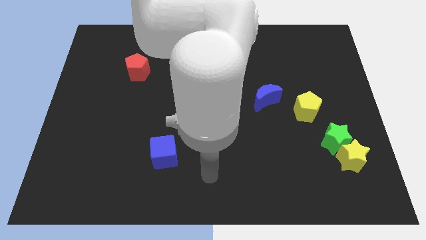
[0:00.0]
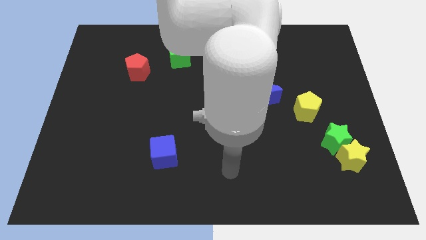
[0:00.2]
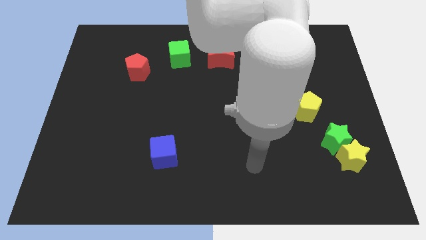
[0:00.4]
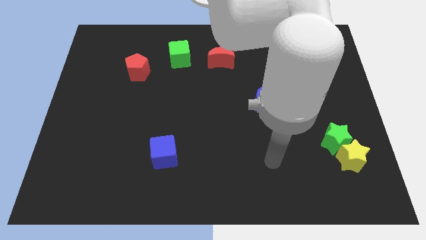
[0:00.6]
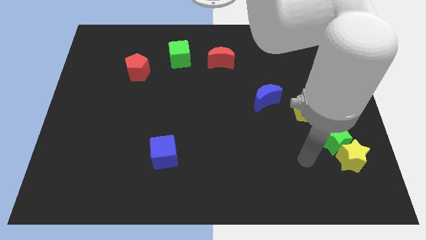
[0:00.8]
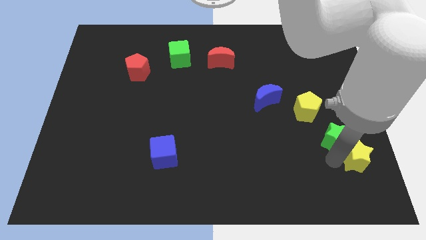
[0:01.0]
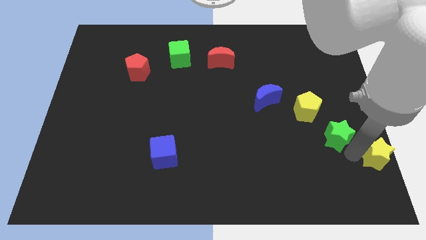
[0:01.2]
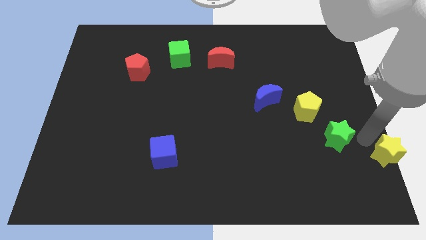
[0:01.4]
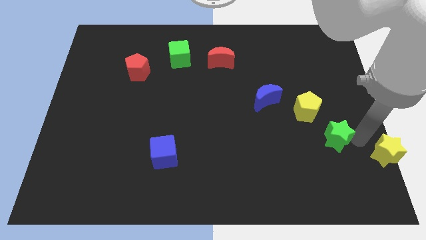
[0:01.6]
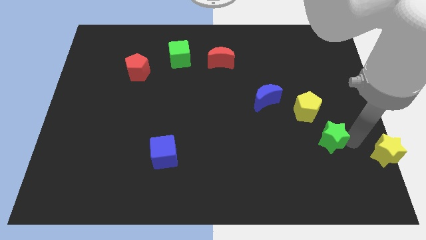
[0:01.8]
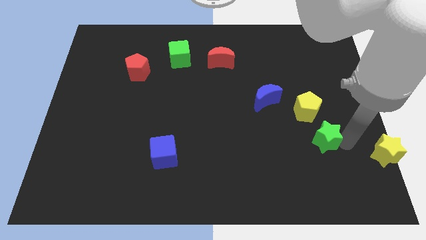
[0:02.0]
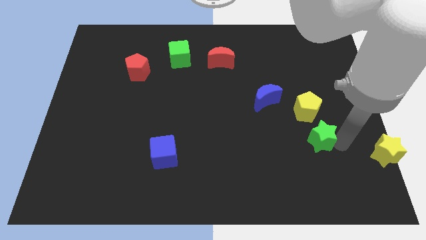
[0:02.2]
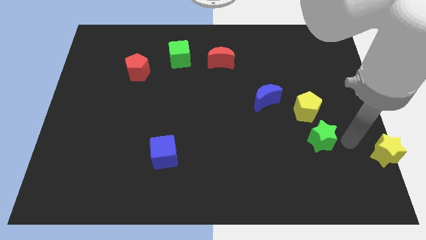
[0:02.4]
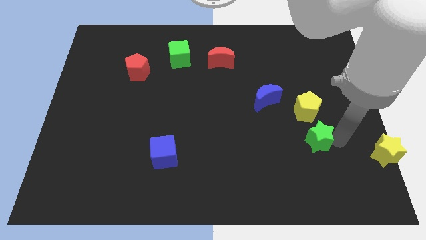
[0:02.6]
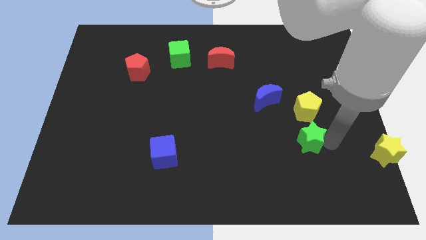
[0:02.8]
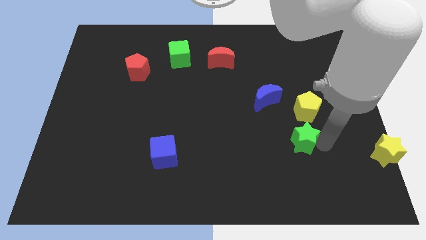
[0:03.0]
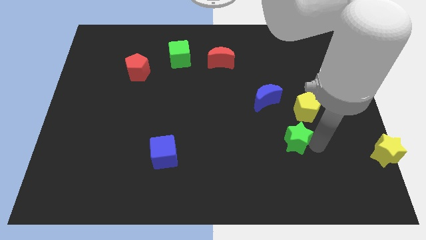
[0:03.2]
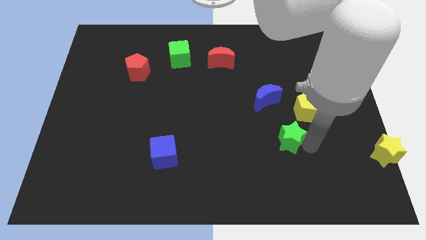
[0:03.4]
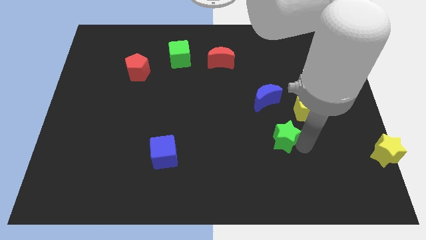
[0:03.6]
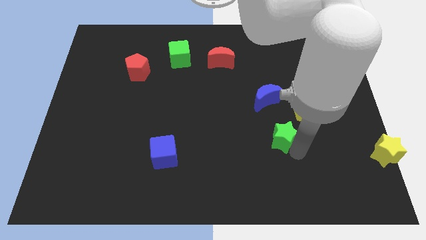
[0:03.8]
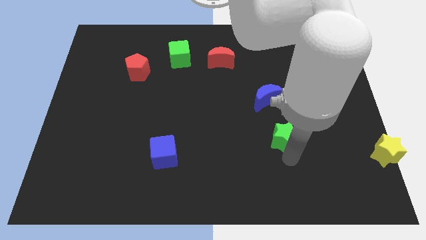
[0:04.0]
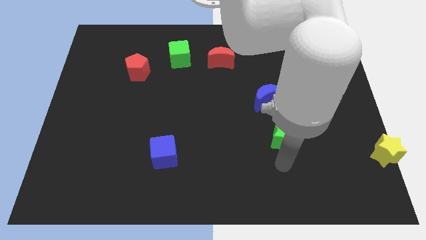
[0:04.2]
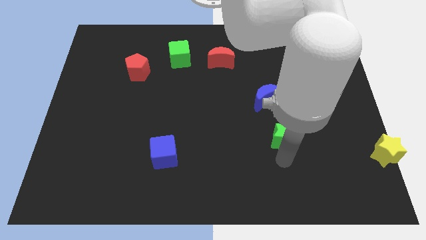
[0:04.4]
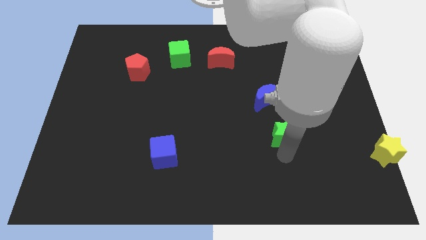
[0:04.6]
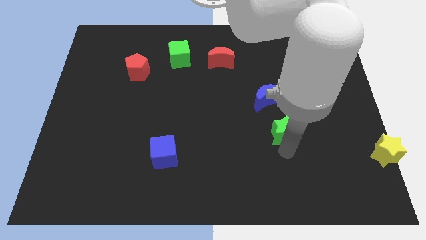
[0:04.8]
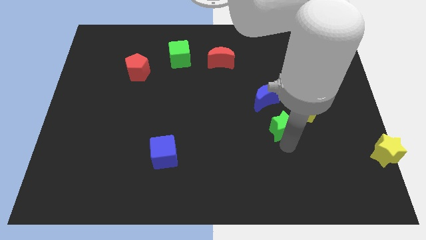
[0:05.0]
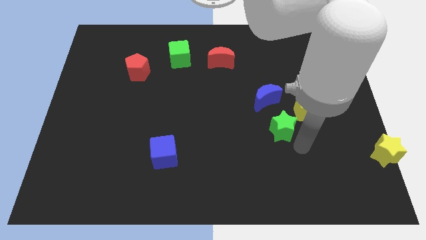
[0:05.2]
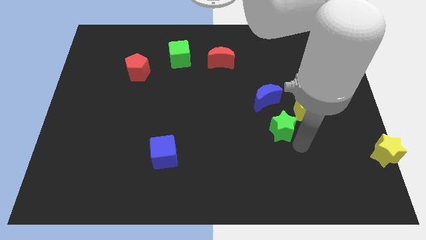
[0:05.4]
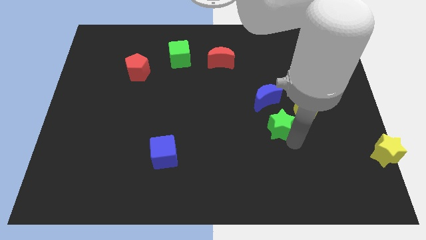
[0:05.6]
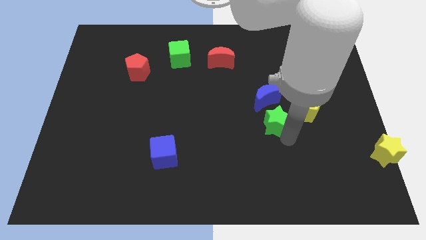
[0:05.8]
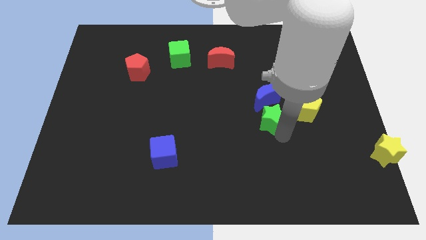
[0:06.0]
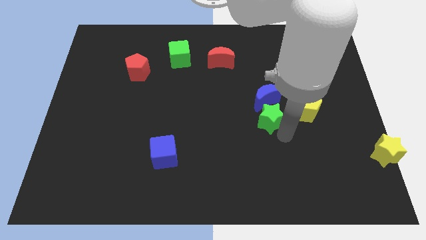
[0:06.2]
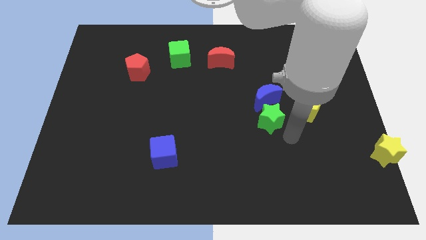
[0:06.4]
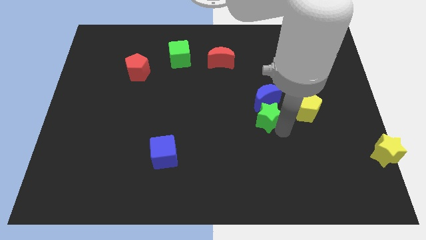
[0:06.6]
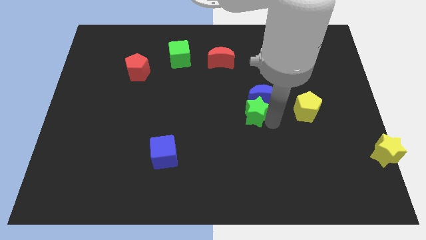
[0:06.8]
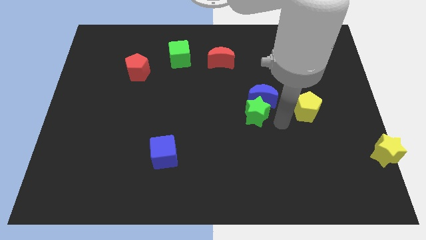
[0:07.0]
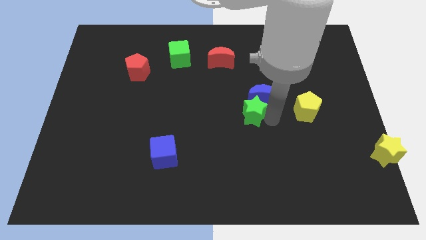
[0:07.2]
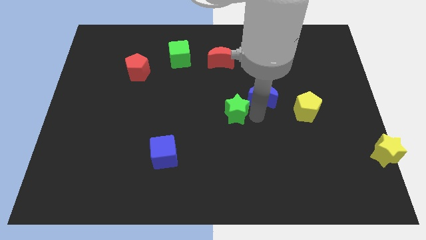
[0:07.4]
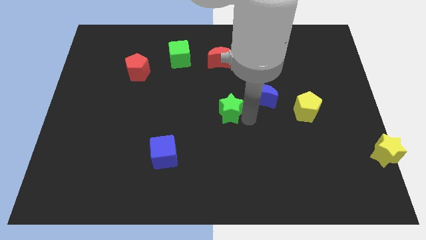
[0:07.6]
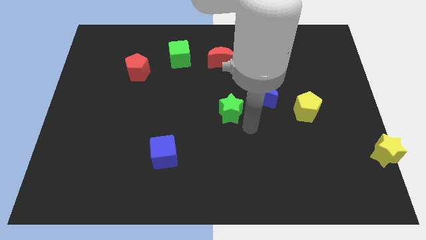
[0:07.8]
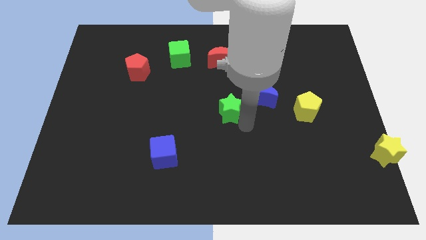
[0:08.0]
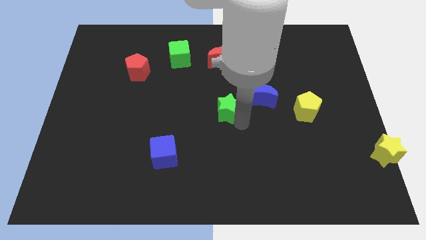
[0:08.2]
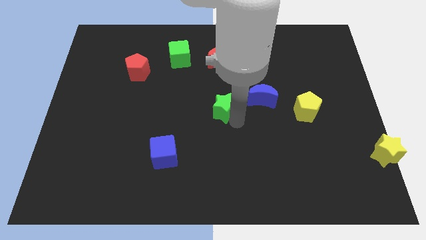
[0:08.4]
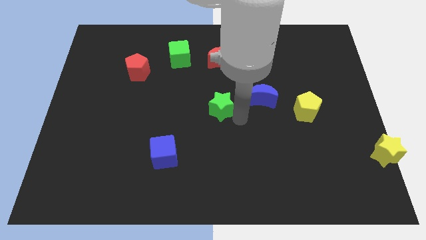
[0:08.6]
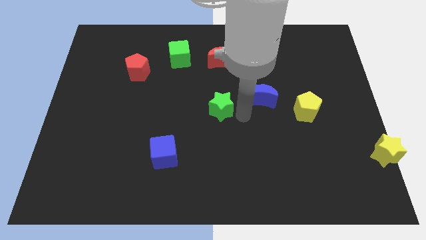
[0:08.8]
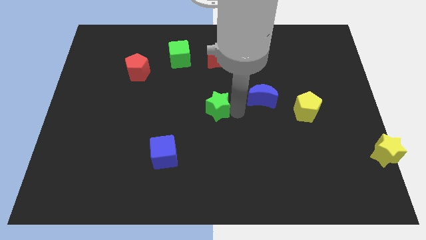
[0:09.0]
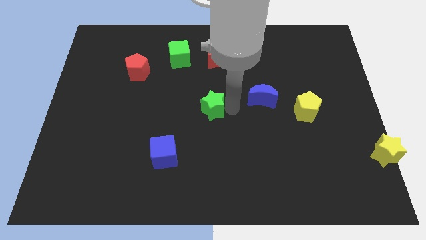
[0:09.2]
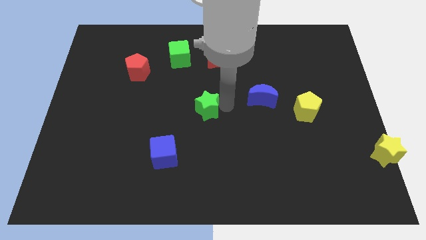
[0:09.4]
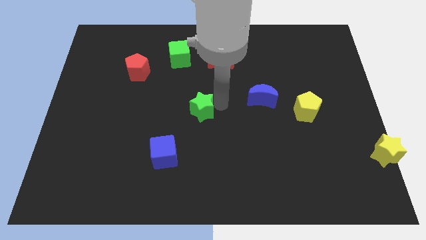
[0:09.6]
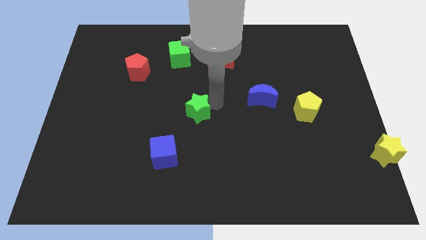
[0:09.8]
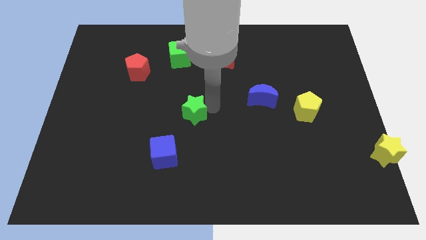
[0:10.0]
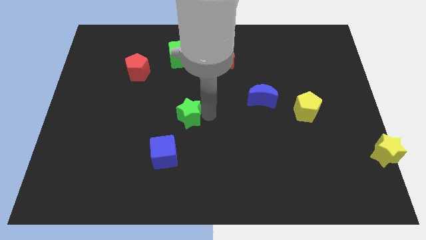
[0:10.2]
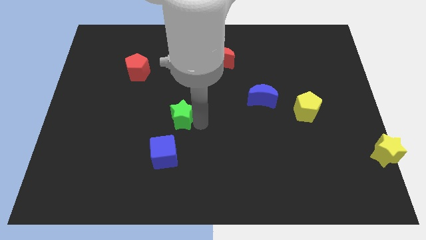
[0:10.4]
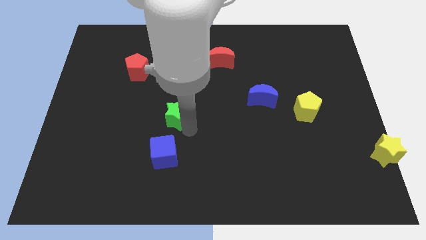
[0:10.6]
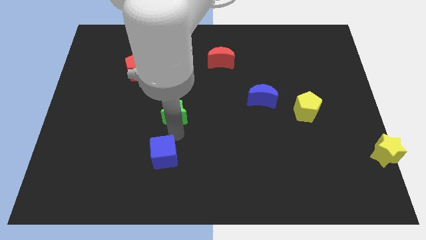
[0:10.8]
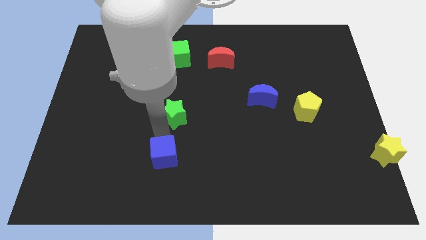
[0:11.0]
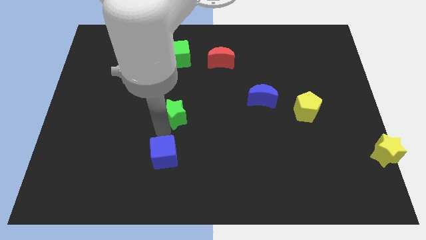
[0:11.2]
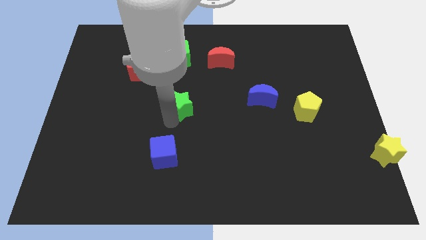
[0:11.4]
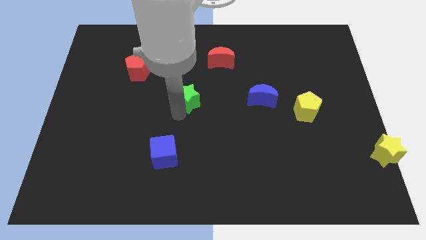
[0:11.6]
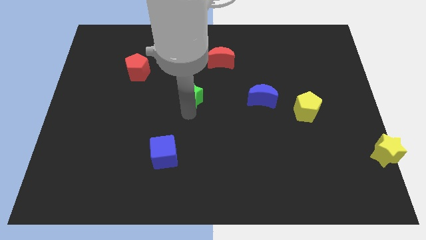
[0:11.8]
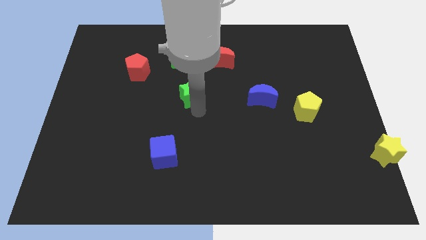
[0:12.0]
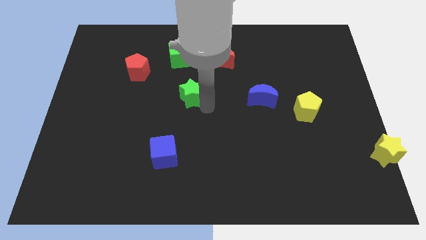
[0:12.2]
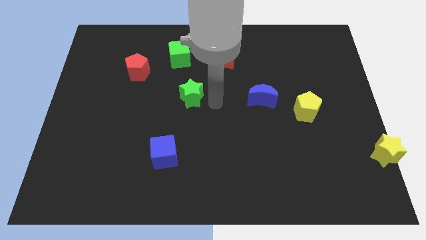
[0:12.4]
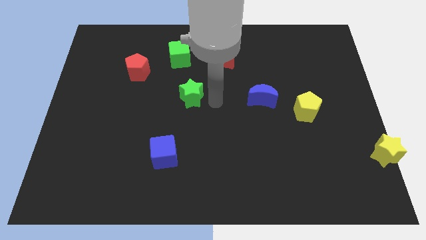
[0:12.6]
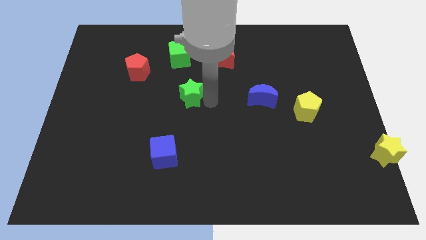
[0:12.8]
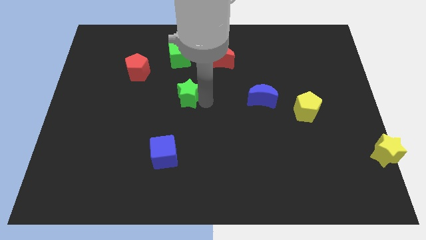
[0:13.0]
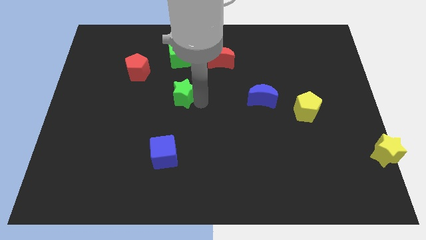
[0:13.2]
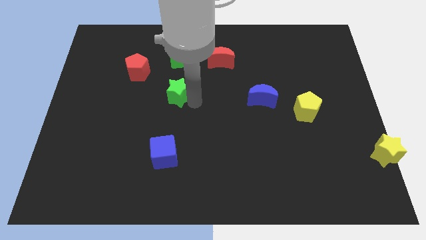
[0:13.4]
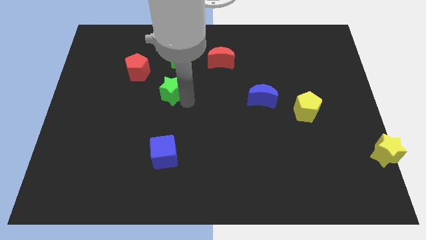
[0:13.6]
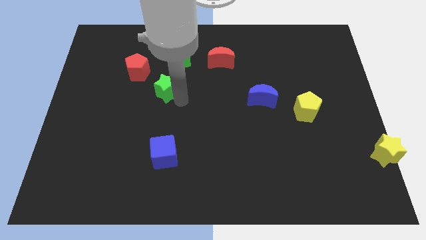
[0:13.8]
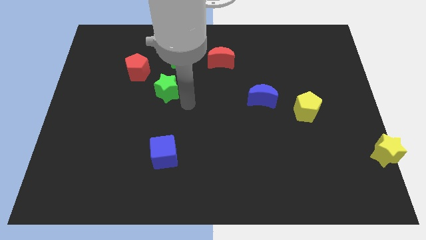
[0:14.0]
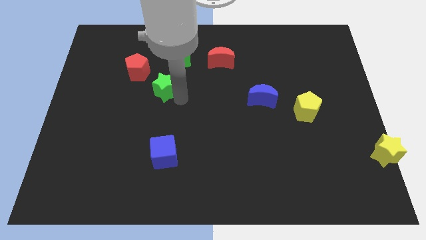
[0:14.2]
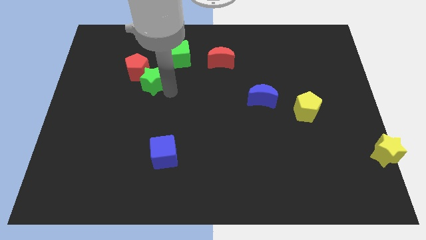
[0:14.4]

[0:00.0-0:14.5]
move the green star next to the red pentagon
